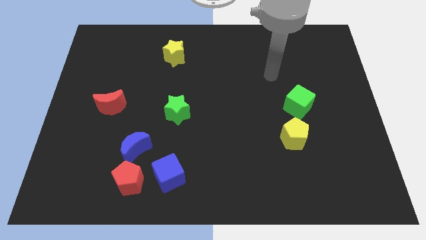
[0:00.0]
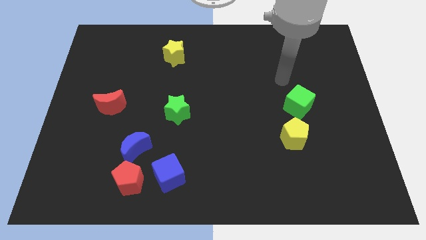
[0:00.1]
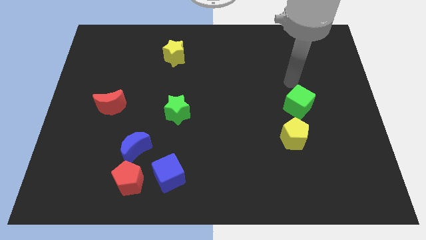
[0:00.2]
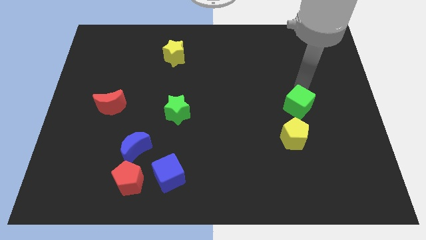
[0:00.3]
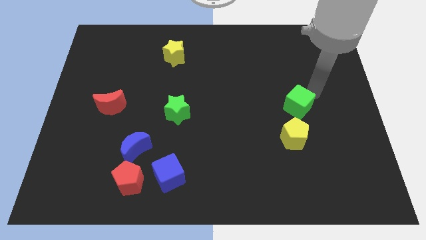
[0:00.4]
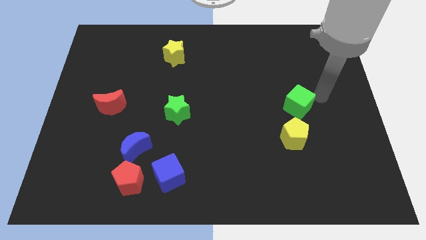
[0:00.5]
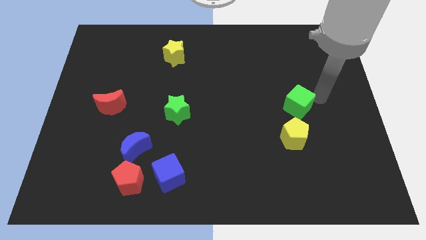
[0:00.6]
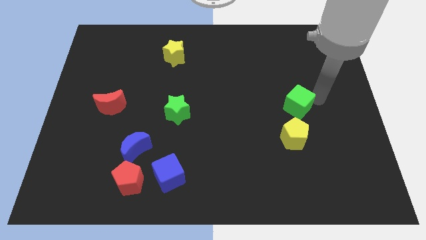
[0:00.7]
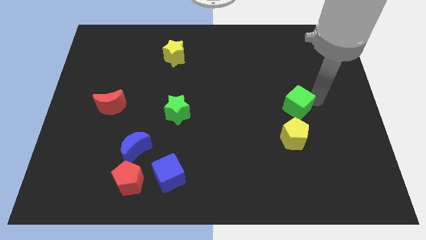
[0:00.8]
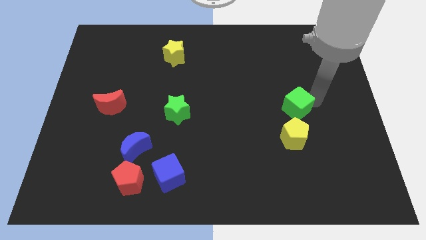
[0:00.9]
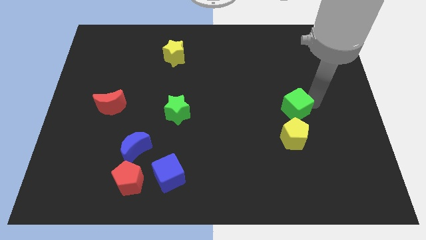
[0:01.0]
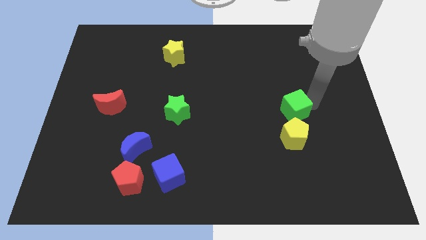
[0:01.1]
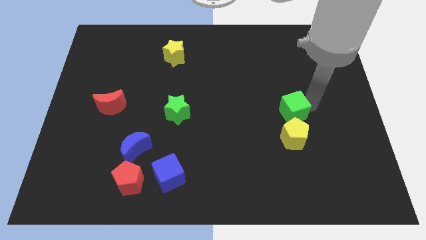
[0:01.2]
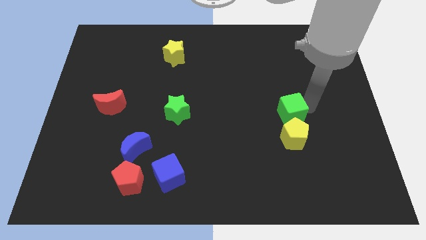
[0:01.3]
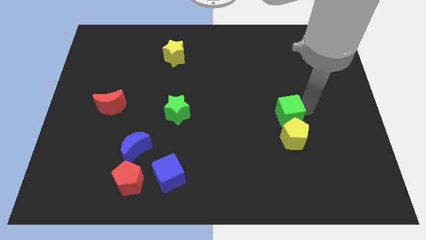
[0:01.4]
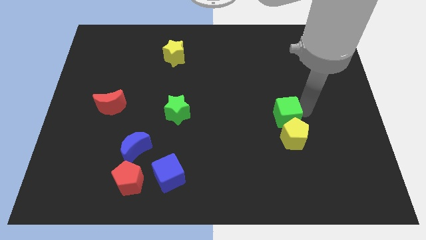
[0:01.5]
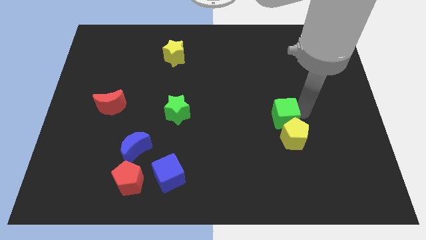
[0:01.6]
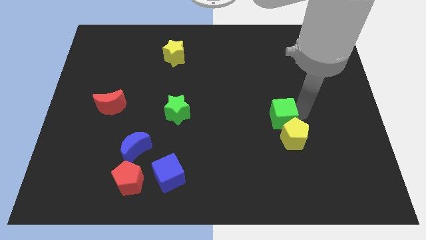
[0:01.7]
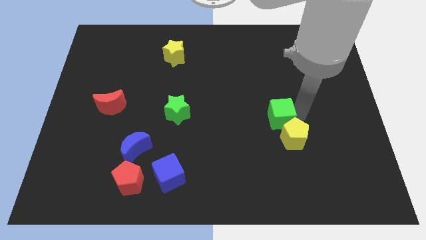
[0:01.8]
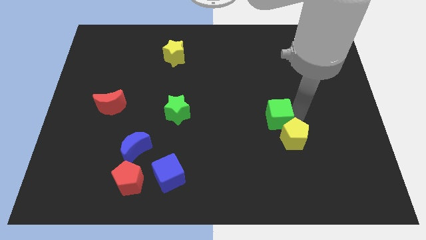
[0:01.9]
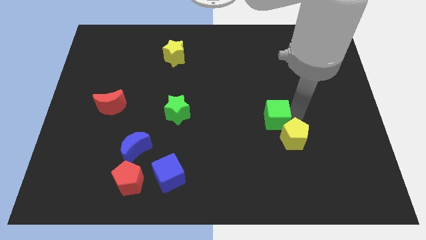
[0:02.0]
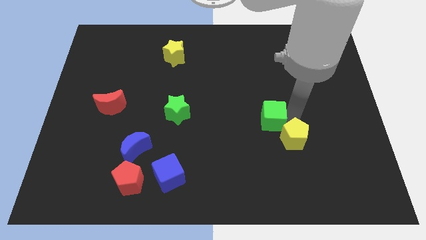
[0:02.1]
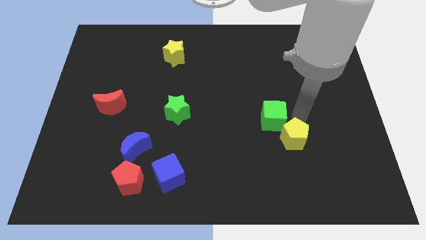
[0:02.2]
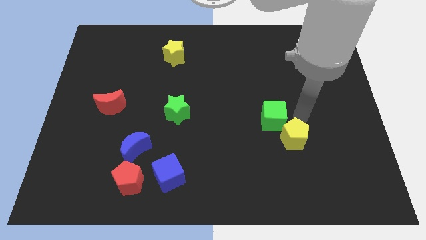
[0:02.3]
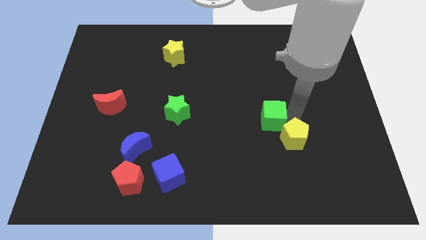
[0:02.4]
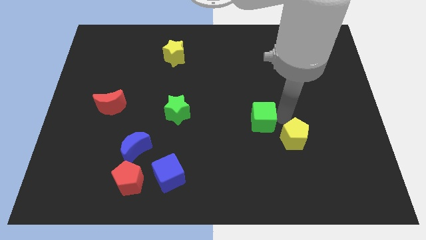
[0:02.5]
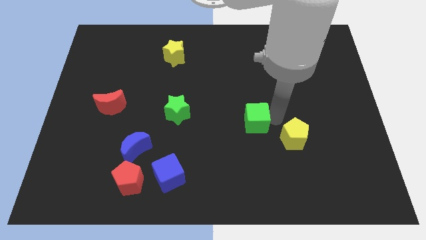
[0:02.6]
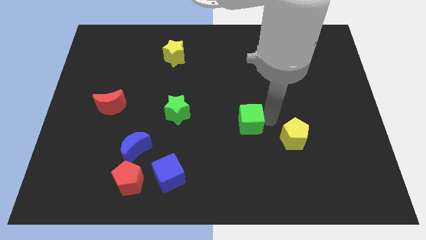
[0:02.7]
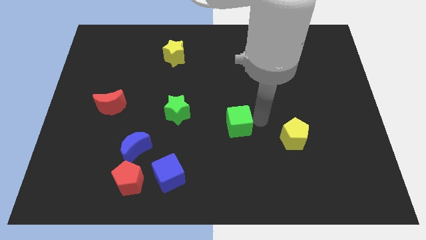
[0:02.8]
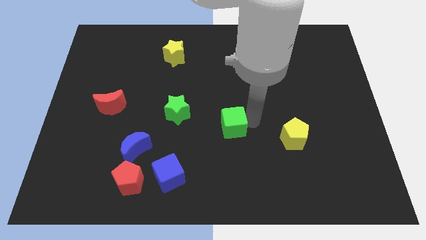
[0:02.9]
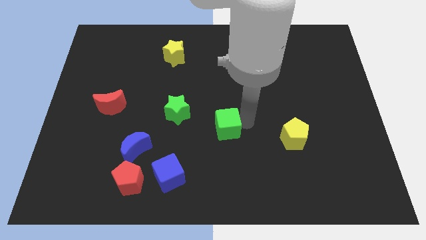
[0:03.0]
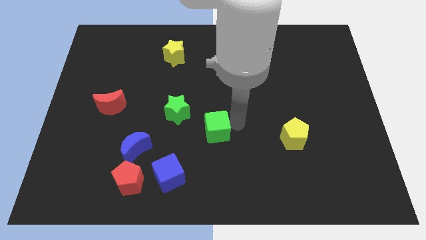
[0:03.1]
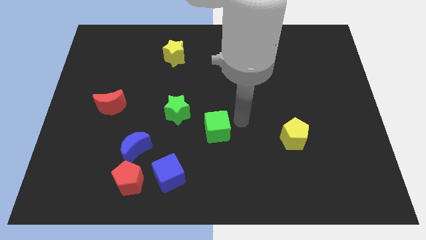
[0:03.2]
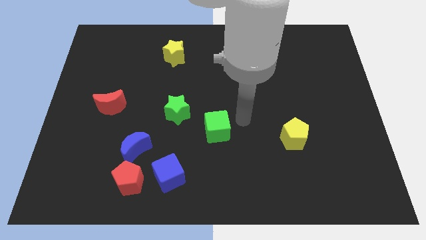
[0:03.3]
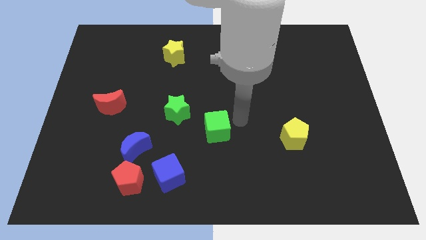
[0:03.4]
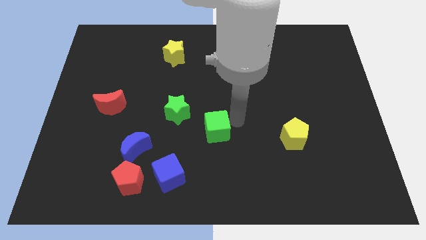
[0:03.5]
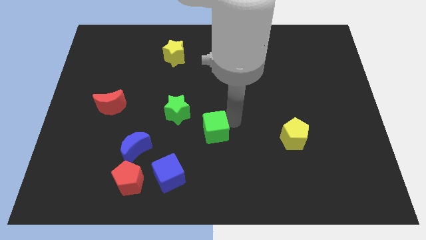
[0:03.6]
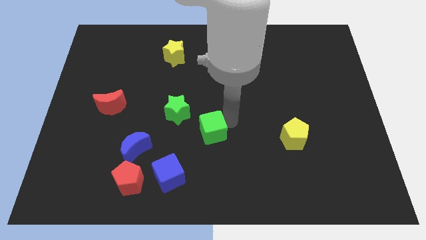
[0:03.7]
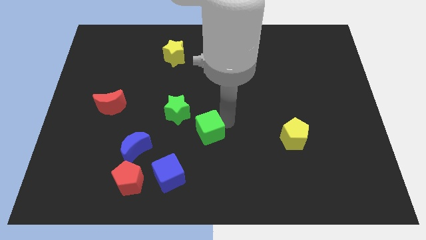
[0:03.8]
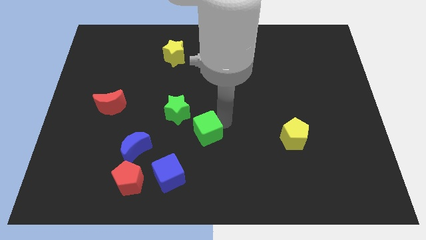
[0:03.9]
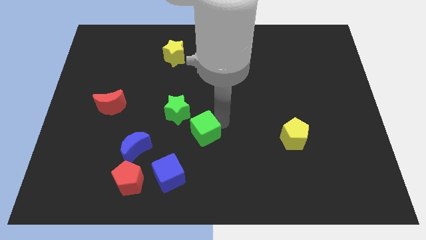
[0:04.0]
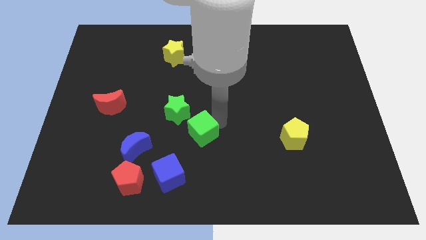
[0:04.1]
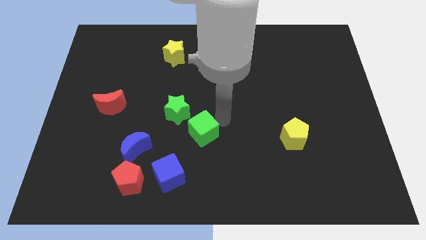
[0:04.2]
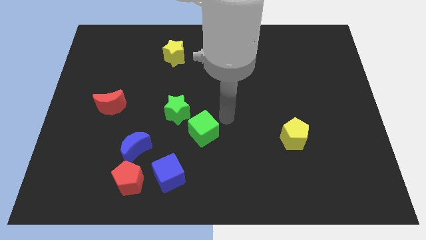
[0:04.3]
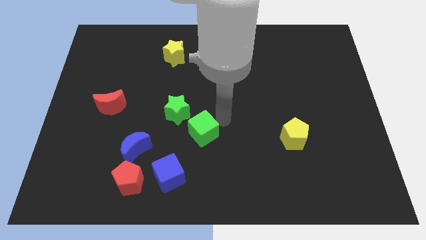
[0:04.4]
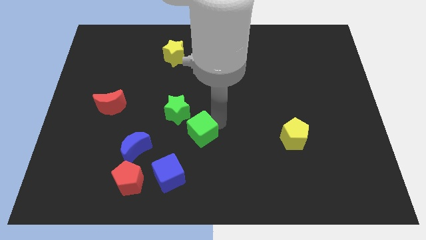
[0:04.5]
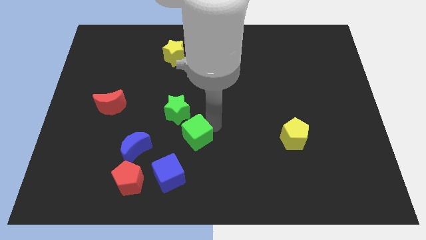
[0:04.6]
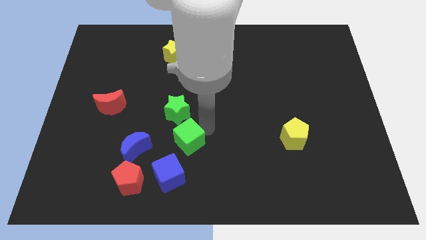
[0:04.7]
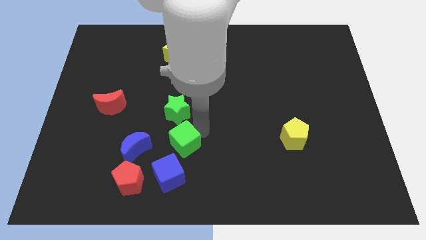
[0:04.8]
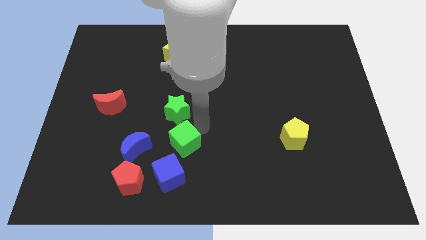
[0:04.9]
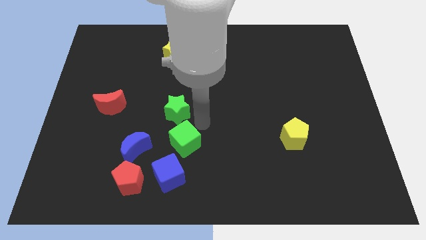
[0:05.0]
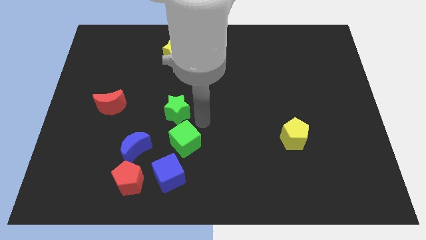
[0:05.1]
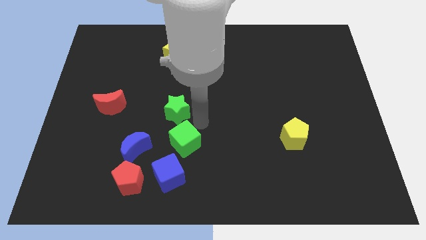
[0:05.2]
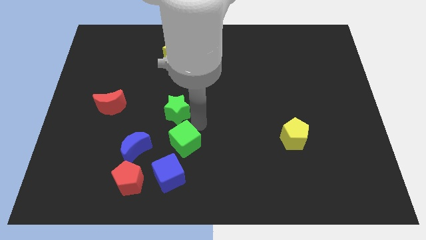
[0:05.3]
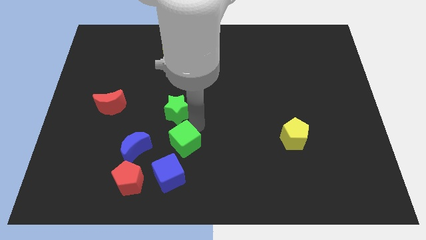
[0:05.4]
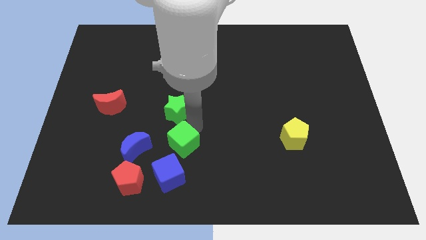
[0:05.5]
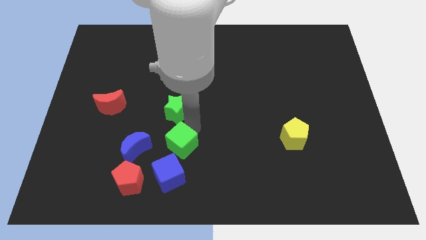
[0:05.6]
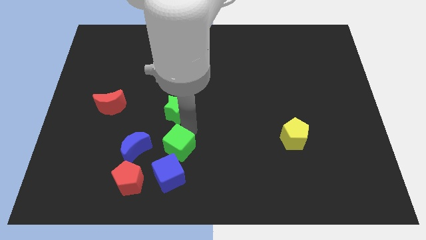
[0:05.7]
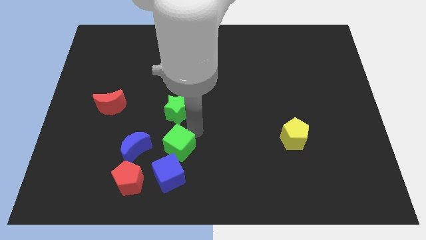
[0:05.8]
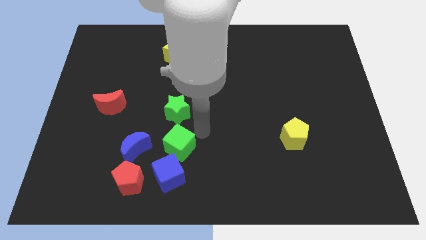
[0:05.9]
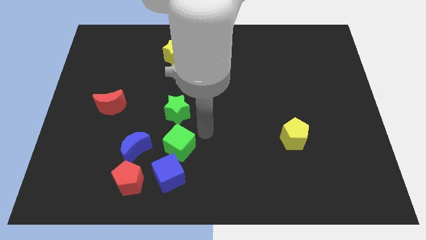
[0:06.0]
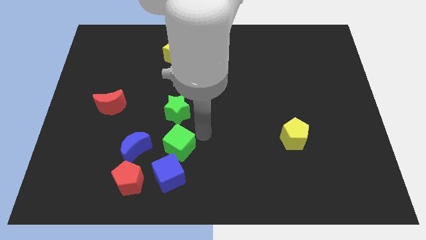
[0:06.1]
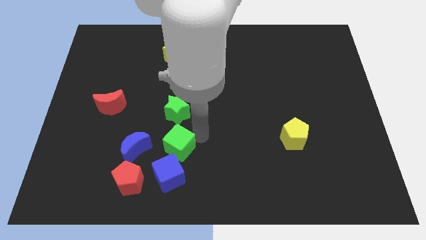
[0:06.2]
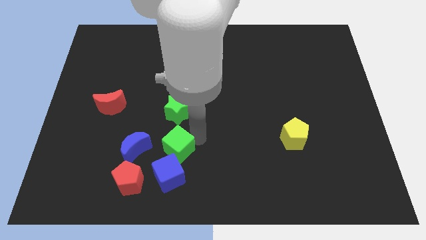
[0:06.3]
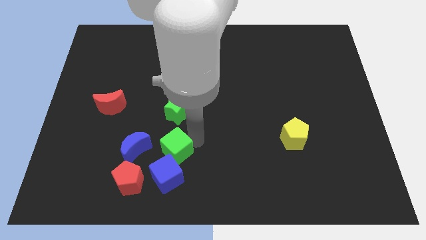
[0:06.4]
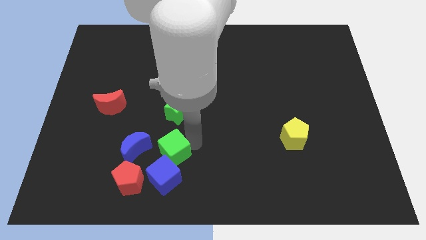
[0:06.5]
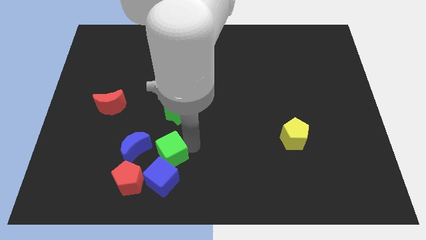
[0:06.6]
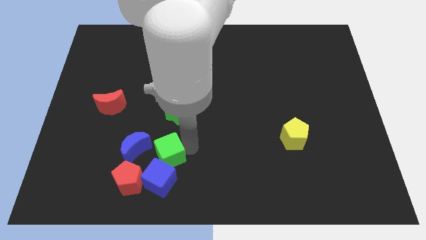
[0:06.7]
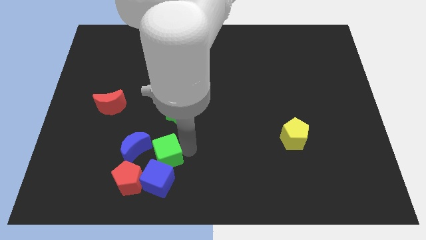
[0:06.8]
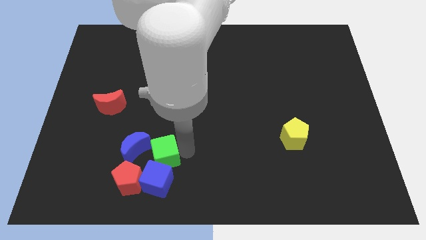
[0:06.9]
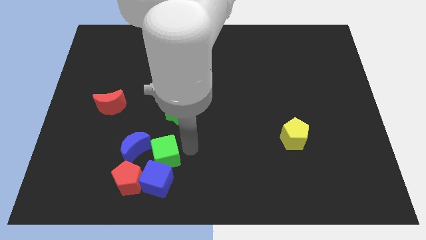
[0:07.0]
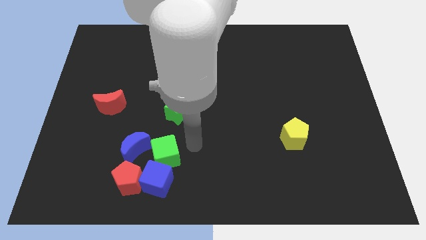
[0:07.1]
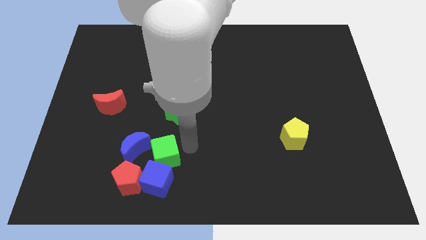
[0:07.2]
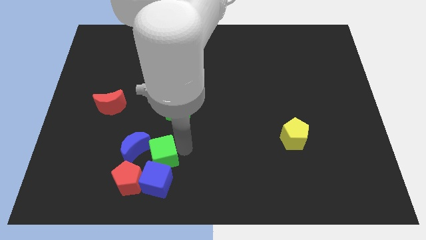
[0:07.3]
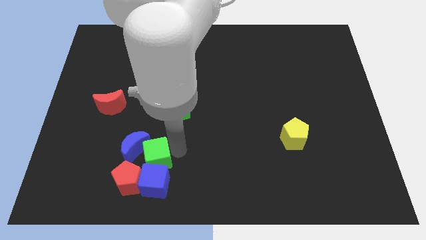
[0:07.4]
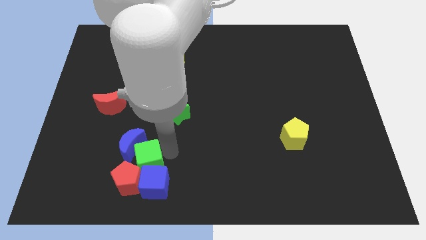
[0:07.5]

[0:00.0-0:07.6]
push the green cube towards the red pentagon
